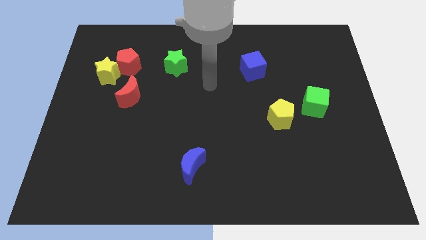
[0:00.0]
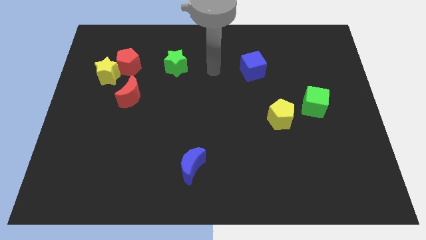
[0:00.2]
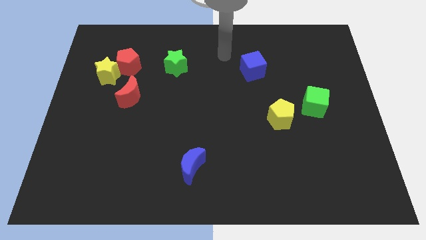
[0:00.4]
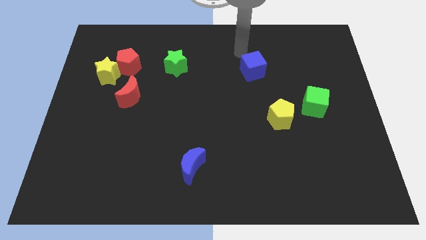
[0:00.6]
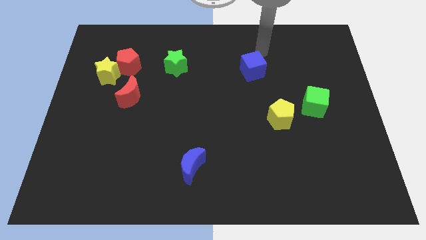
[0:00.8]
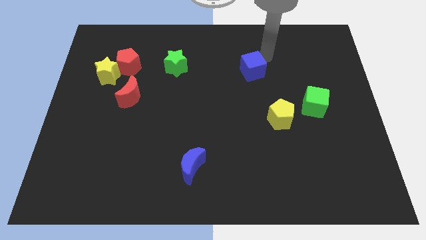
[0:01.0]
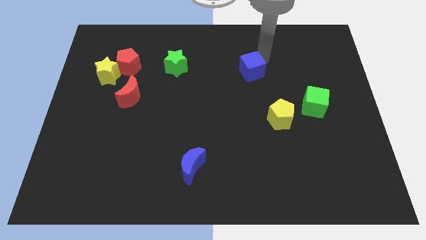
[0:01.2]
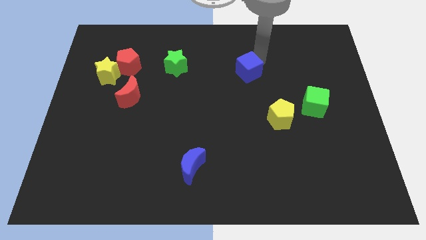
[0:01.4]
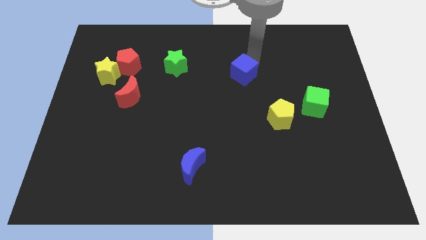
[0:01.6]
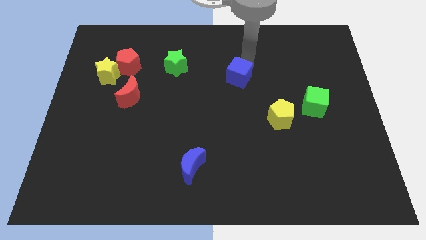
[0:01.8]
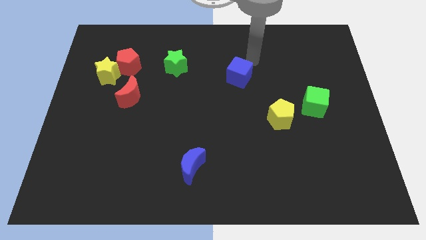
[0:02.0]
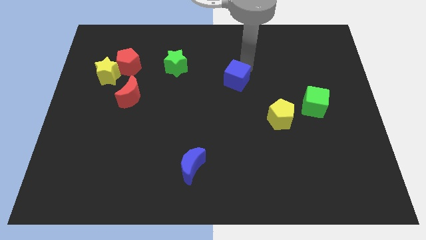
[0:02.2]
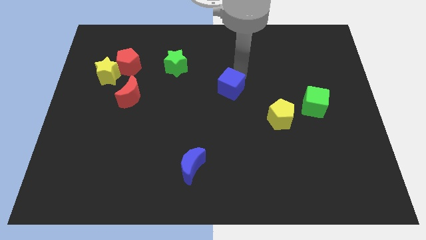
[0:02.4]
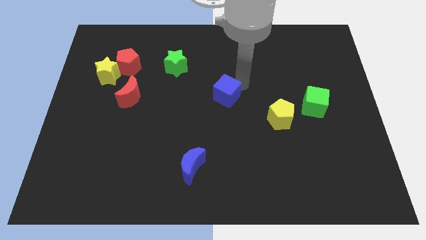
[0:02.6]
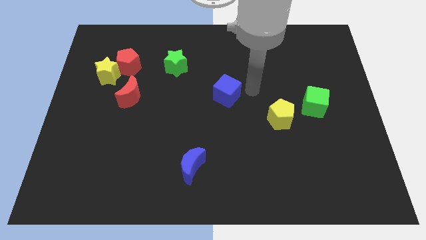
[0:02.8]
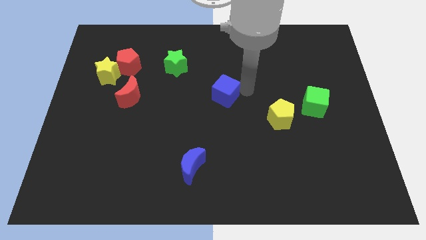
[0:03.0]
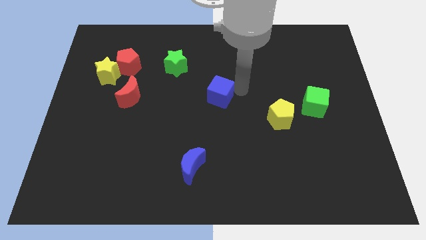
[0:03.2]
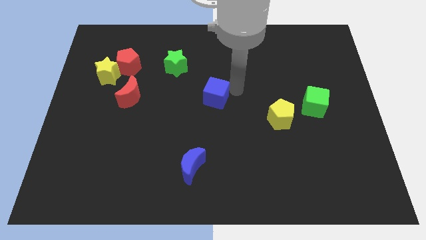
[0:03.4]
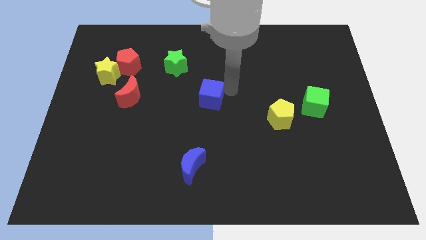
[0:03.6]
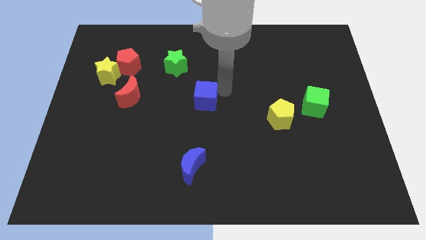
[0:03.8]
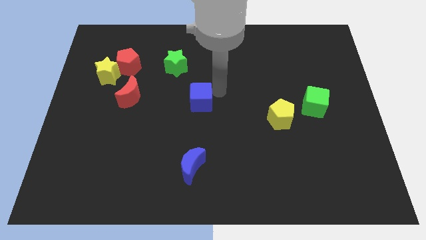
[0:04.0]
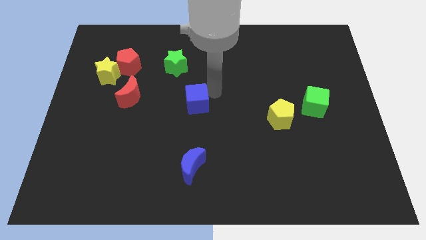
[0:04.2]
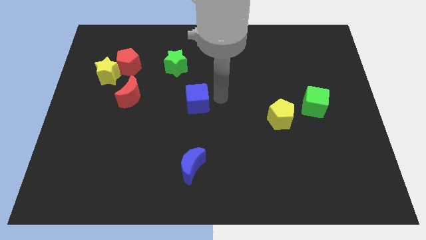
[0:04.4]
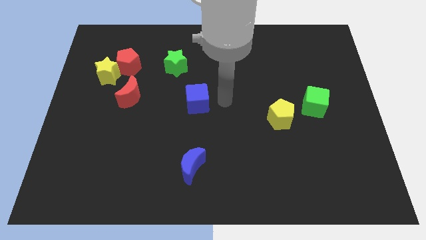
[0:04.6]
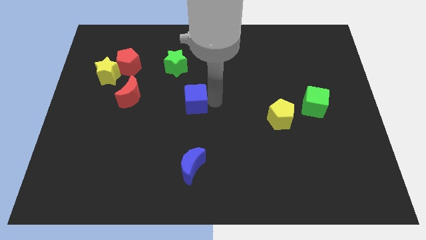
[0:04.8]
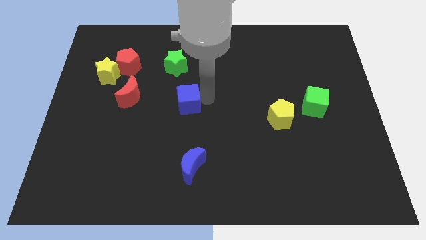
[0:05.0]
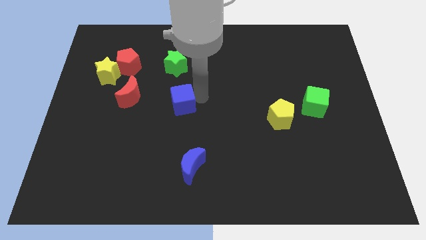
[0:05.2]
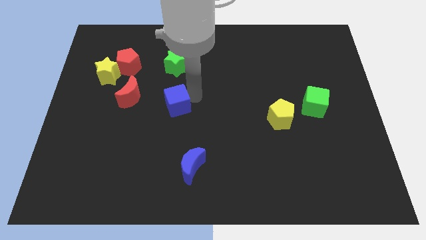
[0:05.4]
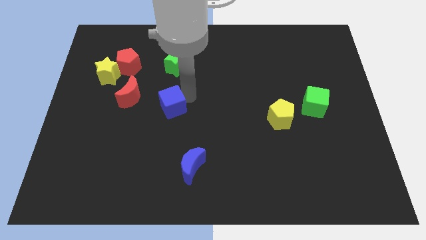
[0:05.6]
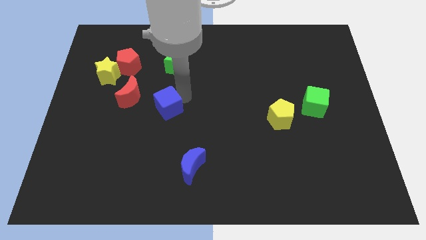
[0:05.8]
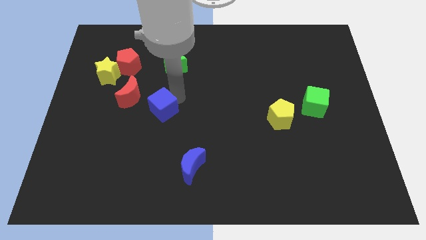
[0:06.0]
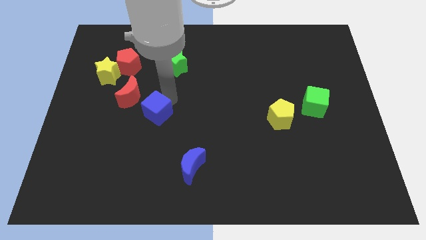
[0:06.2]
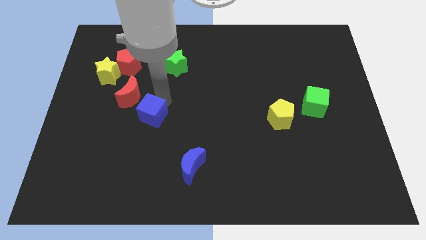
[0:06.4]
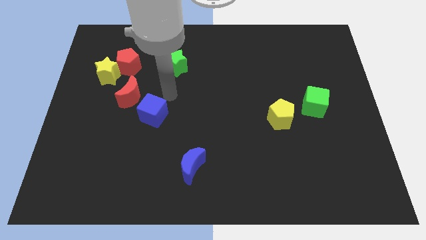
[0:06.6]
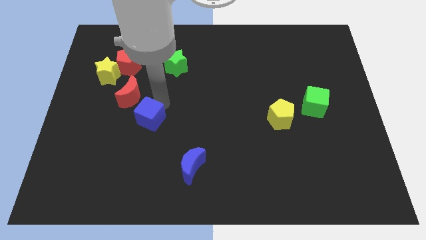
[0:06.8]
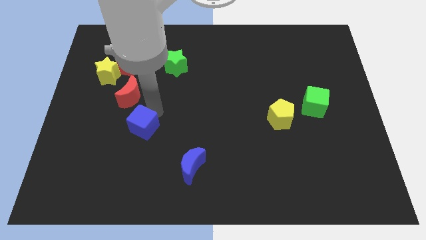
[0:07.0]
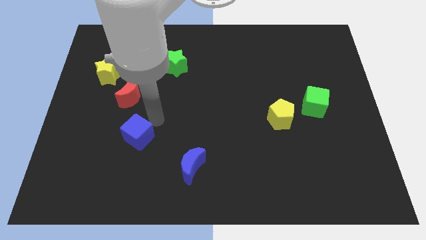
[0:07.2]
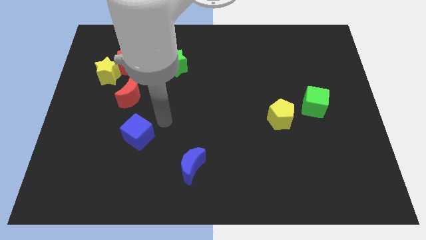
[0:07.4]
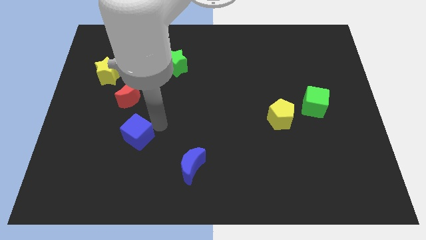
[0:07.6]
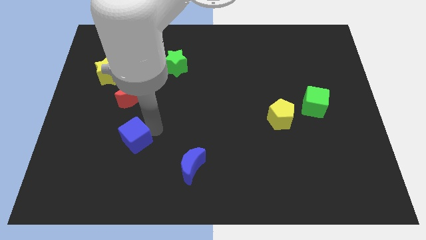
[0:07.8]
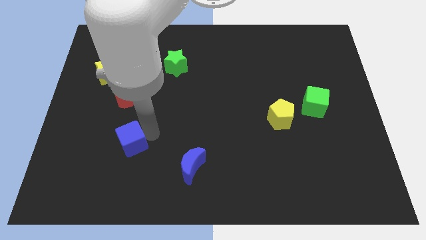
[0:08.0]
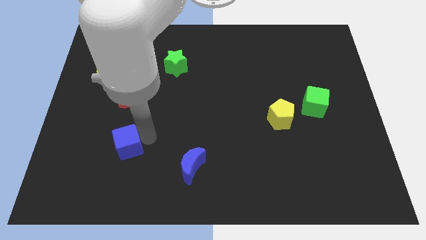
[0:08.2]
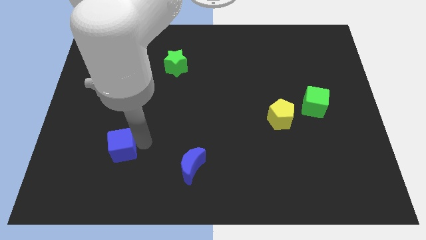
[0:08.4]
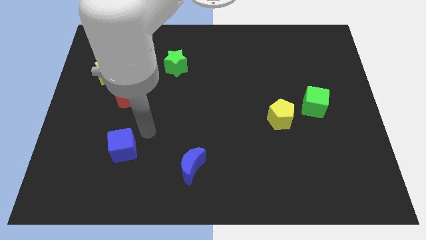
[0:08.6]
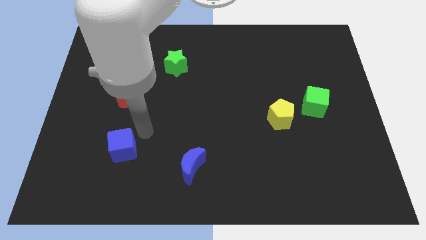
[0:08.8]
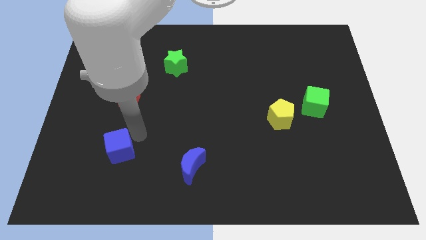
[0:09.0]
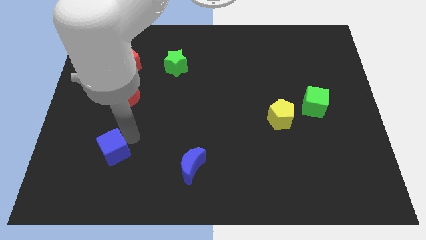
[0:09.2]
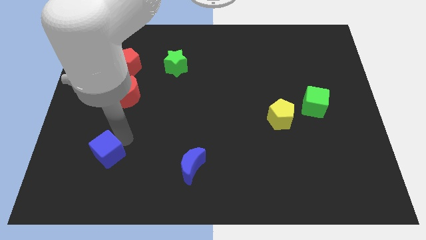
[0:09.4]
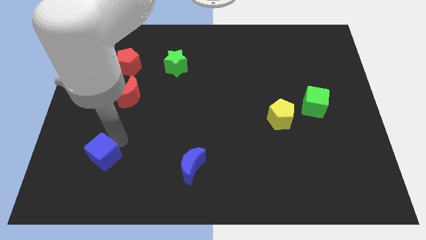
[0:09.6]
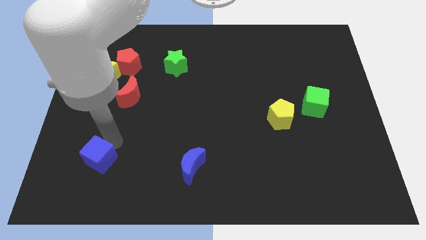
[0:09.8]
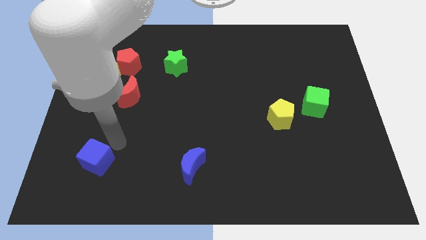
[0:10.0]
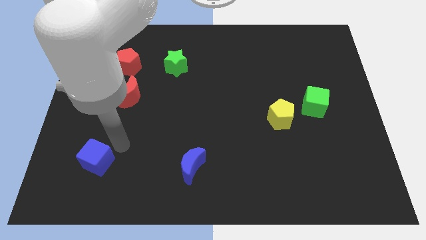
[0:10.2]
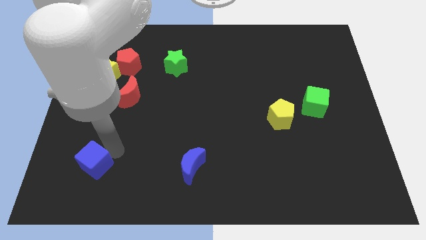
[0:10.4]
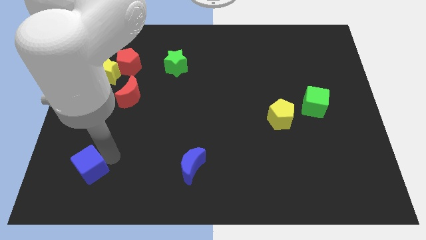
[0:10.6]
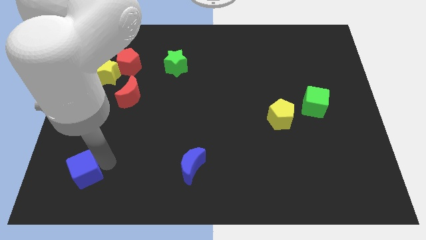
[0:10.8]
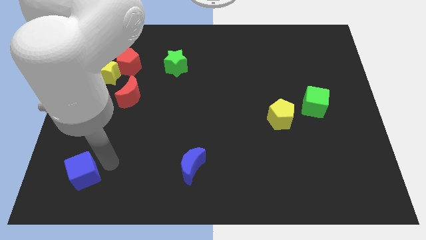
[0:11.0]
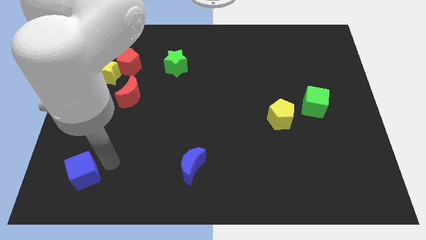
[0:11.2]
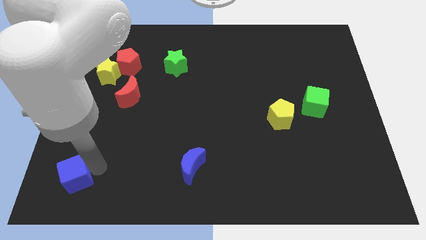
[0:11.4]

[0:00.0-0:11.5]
slide the blue cube to the bottom left of the board

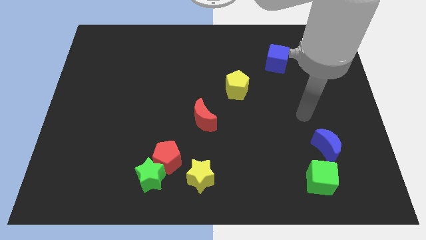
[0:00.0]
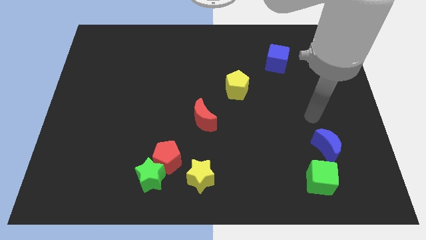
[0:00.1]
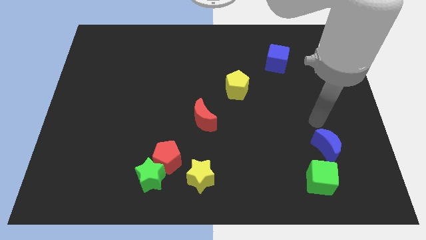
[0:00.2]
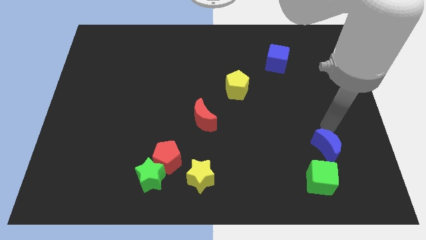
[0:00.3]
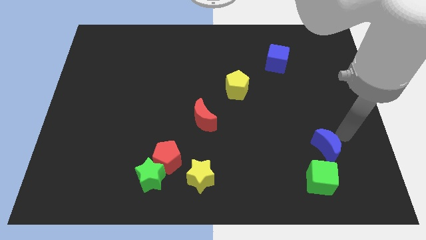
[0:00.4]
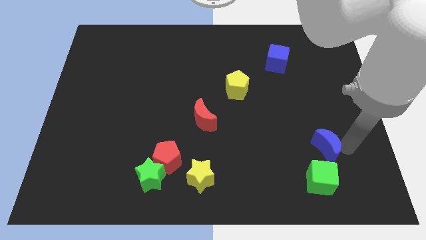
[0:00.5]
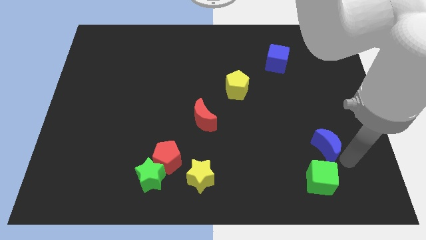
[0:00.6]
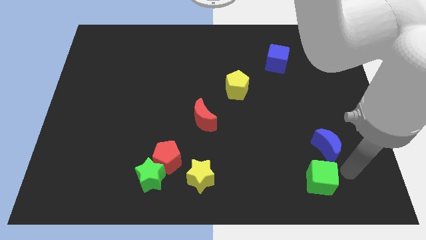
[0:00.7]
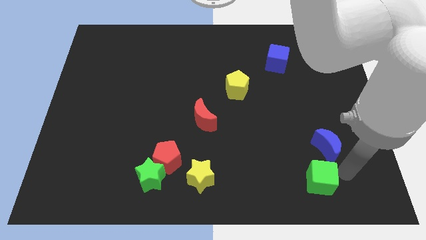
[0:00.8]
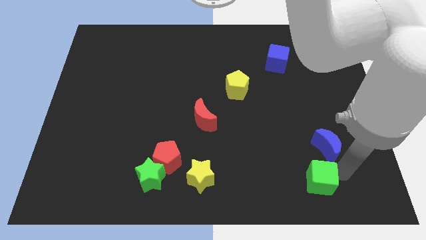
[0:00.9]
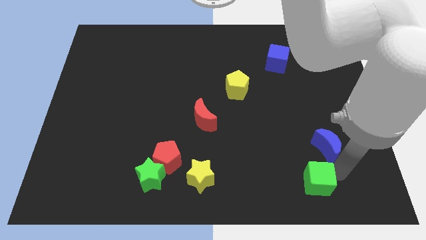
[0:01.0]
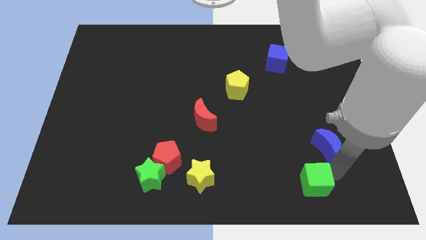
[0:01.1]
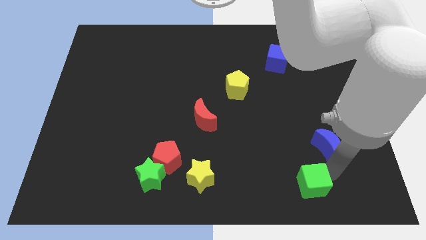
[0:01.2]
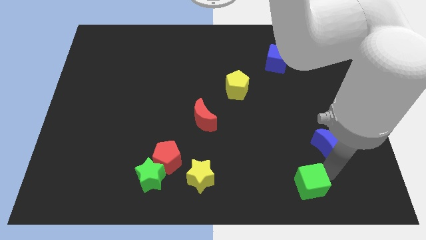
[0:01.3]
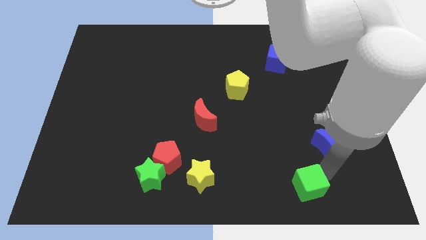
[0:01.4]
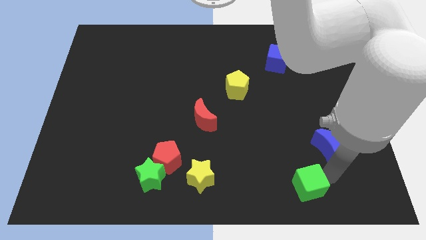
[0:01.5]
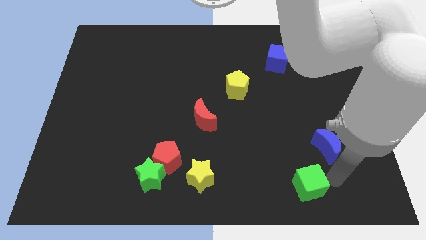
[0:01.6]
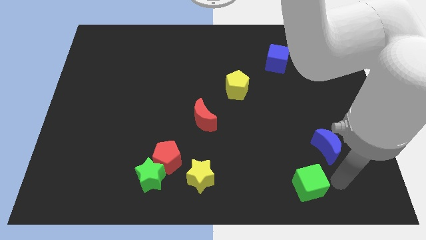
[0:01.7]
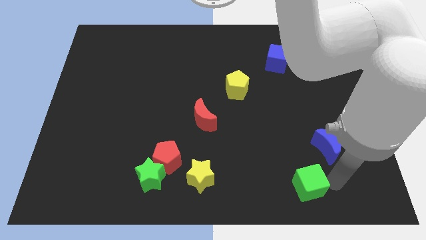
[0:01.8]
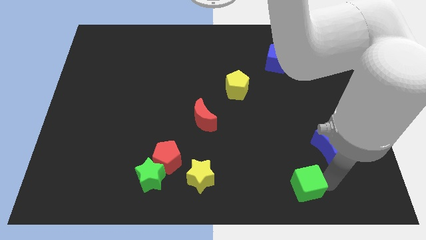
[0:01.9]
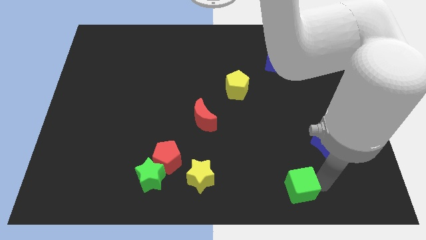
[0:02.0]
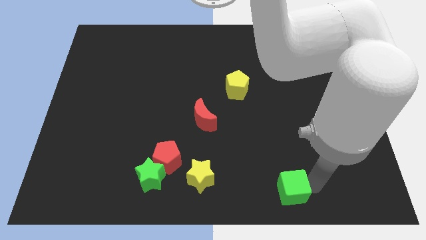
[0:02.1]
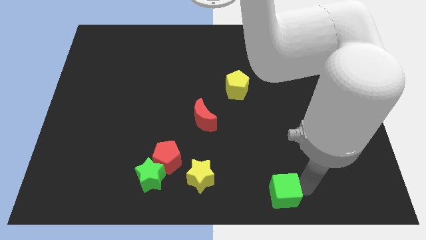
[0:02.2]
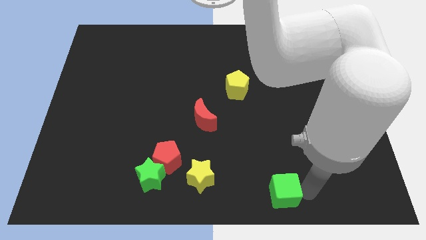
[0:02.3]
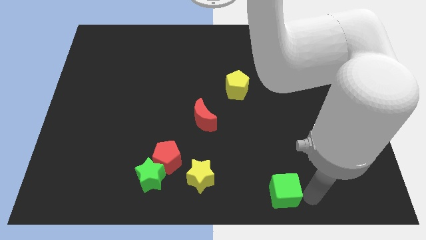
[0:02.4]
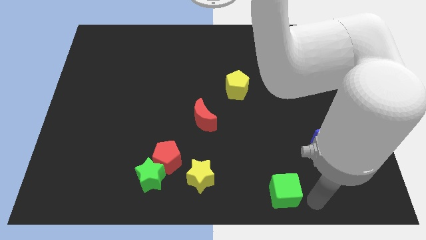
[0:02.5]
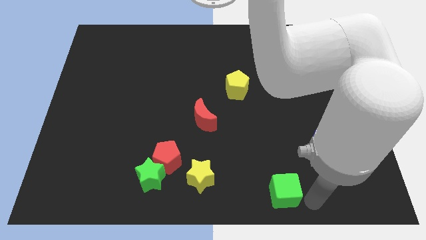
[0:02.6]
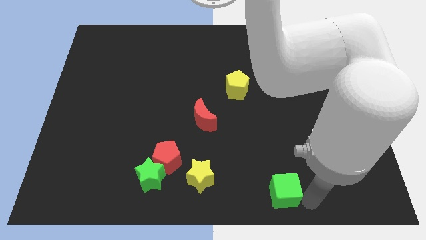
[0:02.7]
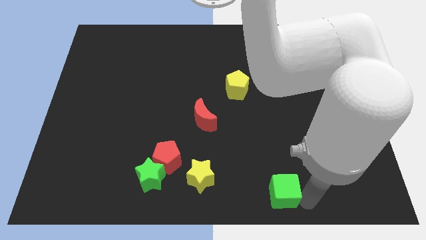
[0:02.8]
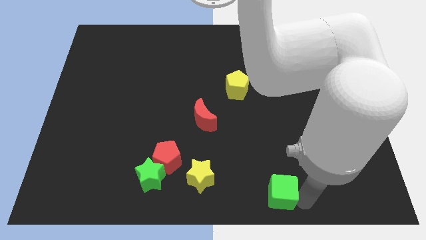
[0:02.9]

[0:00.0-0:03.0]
slide the green cube to the bottom
